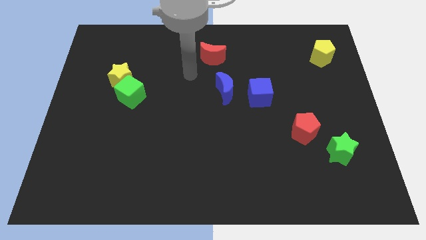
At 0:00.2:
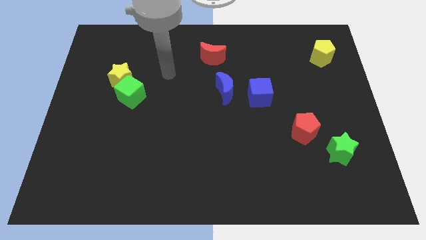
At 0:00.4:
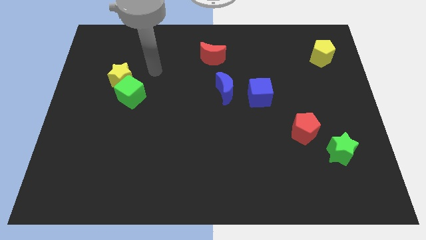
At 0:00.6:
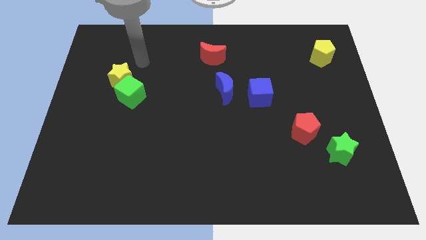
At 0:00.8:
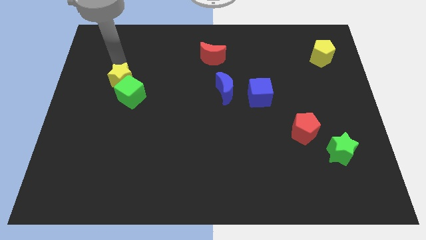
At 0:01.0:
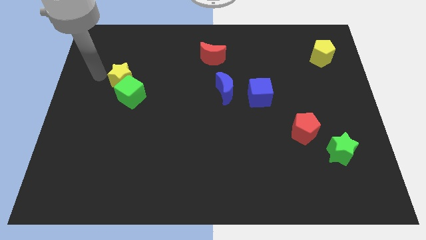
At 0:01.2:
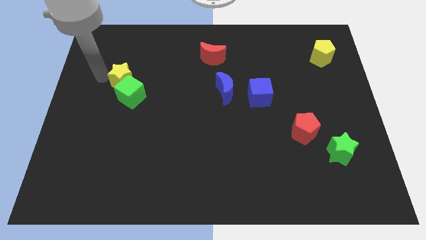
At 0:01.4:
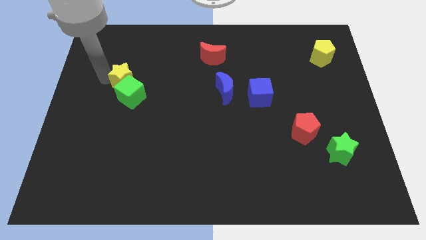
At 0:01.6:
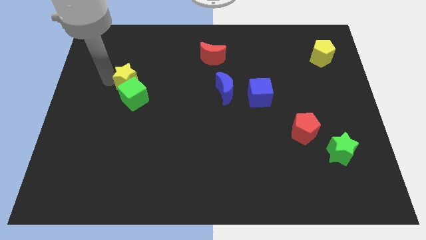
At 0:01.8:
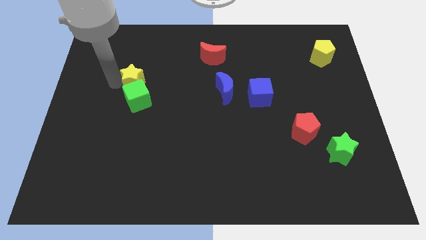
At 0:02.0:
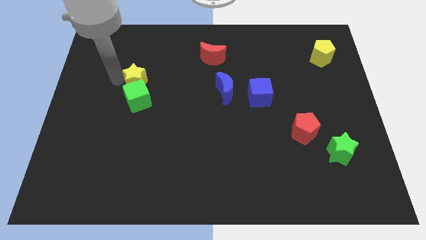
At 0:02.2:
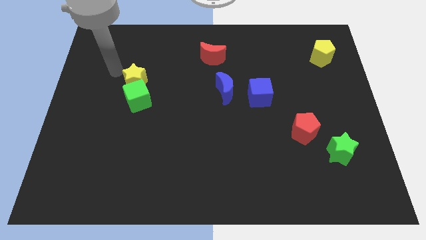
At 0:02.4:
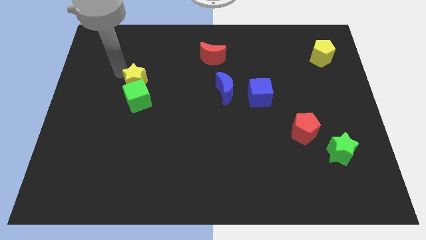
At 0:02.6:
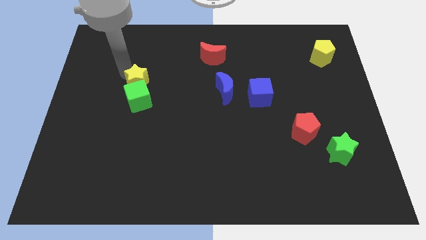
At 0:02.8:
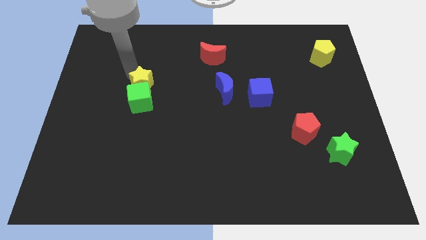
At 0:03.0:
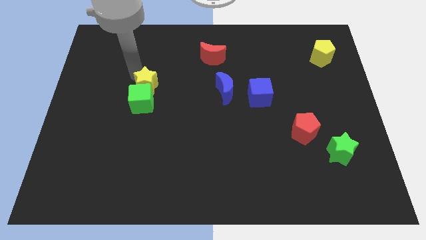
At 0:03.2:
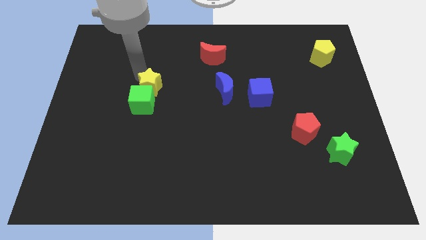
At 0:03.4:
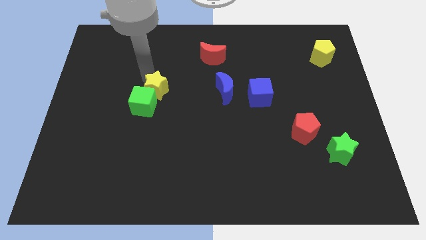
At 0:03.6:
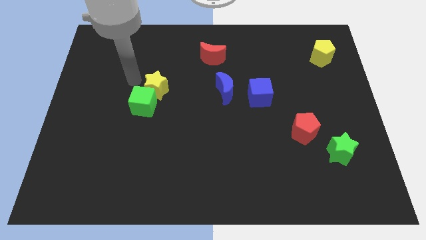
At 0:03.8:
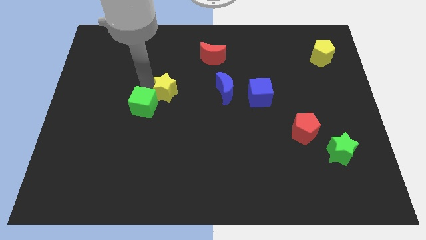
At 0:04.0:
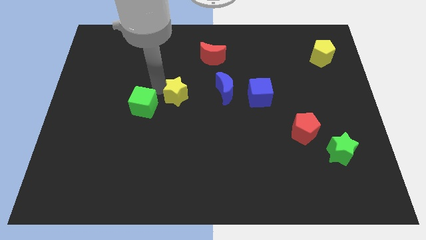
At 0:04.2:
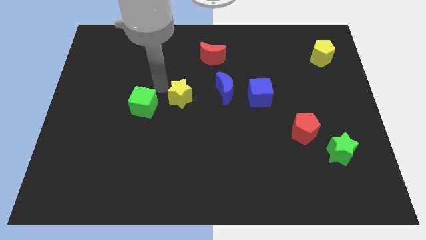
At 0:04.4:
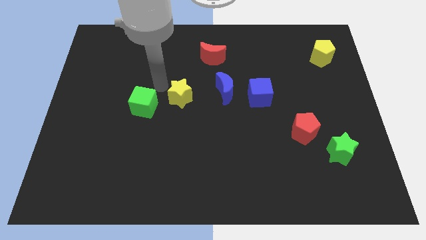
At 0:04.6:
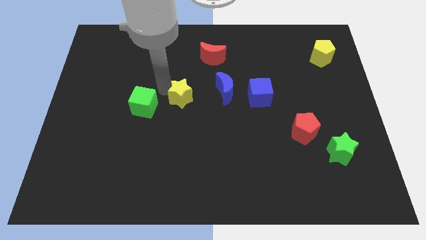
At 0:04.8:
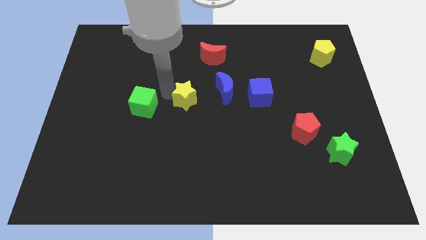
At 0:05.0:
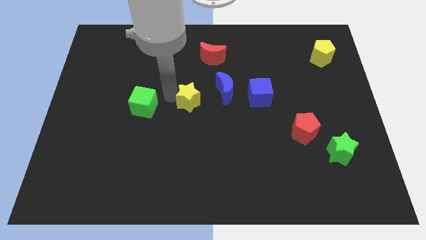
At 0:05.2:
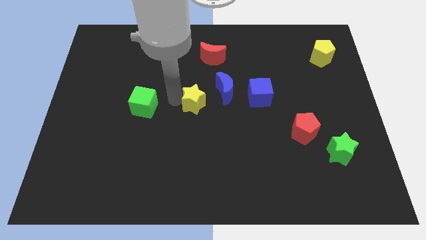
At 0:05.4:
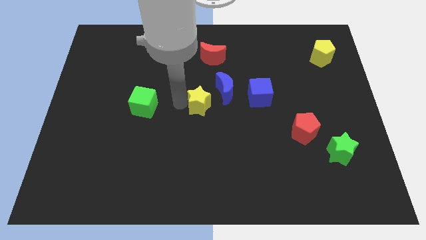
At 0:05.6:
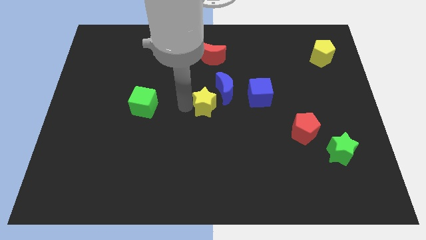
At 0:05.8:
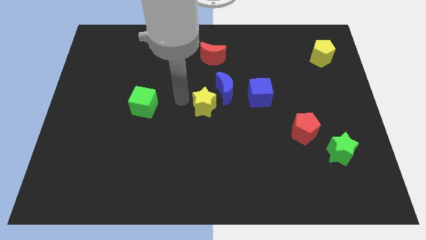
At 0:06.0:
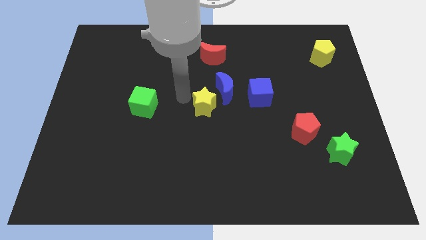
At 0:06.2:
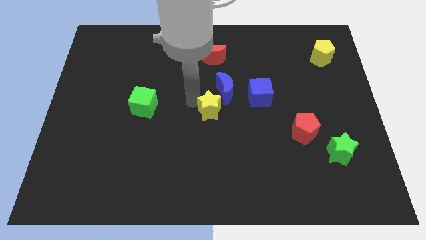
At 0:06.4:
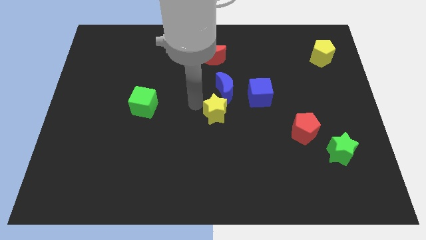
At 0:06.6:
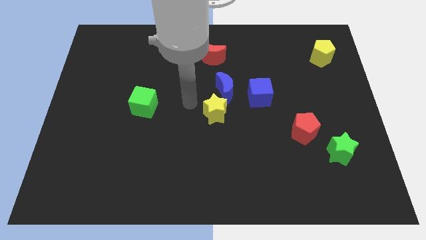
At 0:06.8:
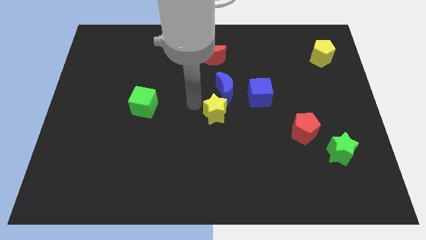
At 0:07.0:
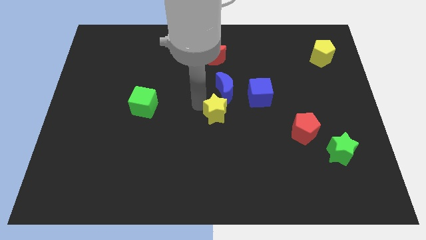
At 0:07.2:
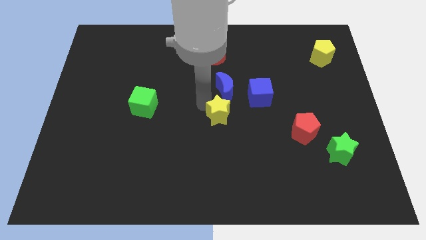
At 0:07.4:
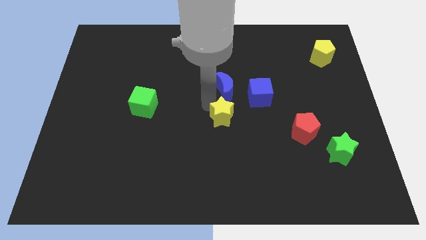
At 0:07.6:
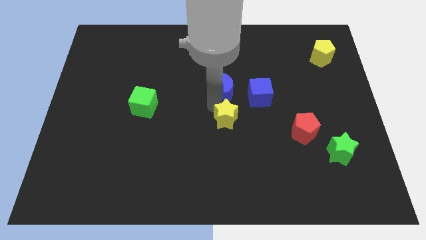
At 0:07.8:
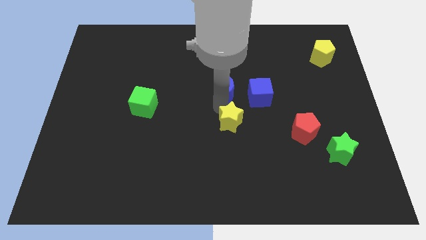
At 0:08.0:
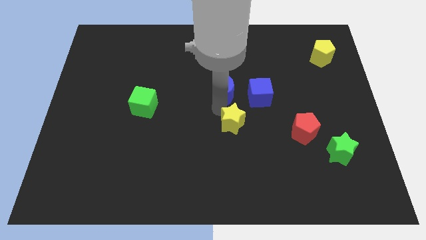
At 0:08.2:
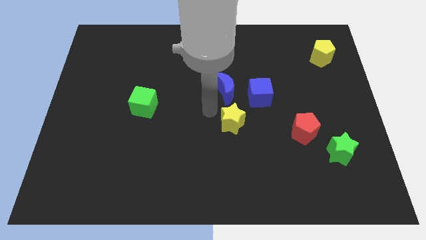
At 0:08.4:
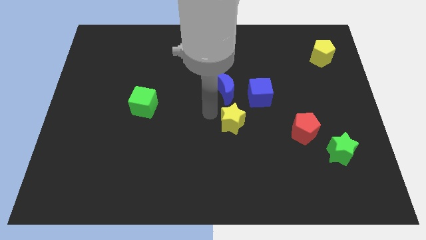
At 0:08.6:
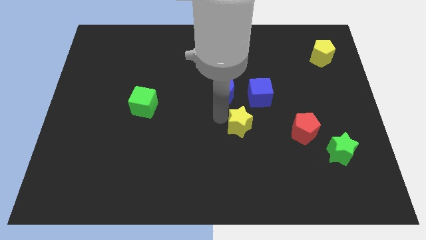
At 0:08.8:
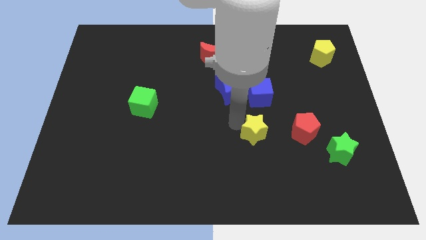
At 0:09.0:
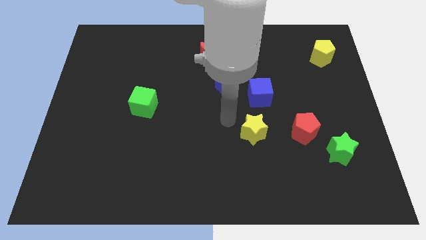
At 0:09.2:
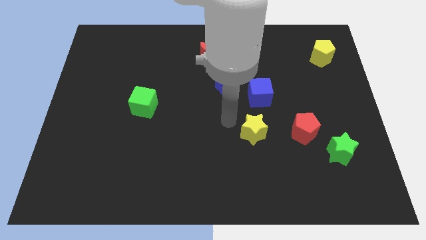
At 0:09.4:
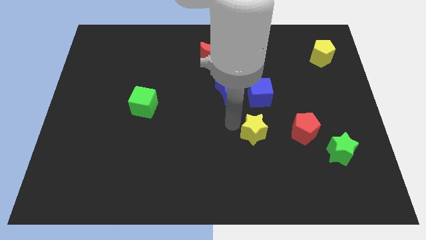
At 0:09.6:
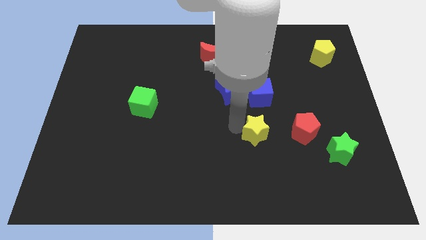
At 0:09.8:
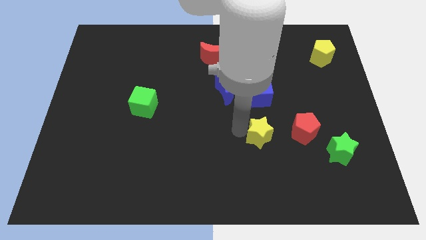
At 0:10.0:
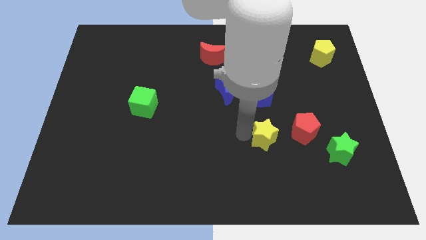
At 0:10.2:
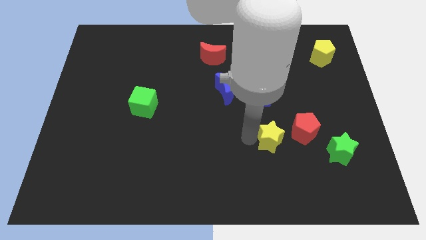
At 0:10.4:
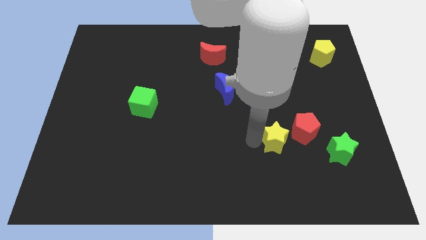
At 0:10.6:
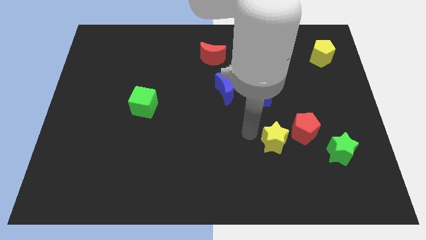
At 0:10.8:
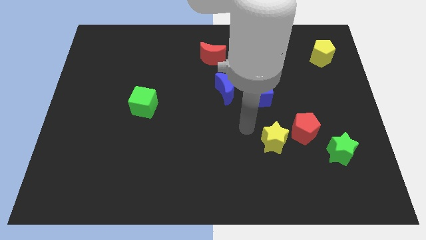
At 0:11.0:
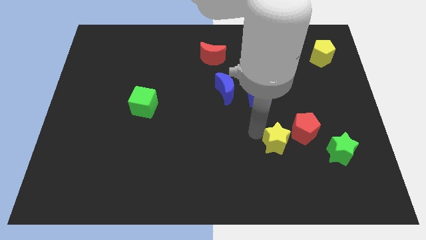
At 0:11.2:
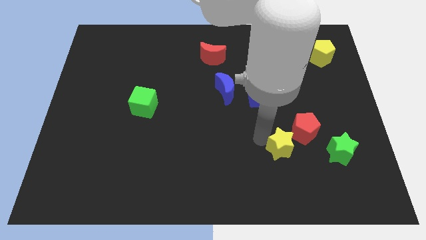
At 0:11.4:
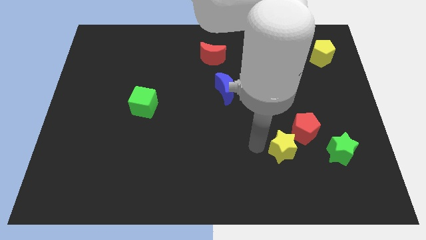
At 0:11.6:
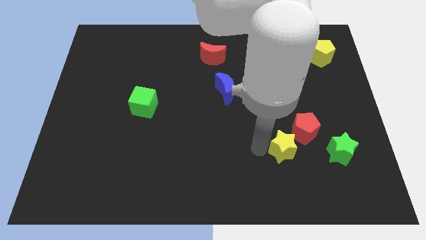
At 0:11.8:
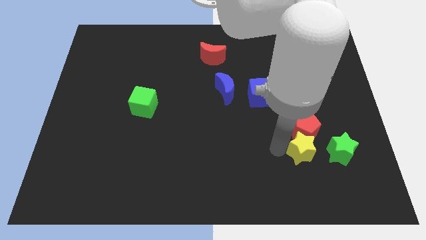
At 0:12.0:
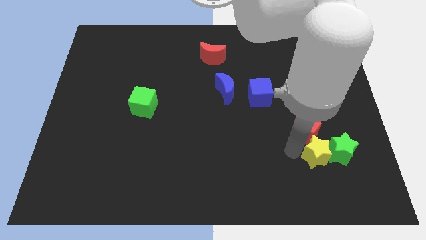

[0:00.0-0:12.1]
move the yellow star towards the green star

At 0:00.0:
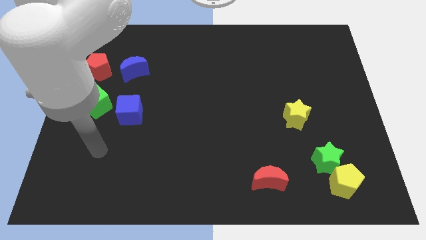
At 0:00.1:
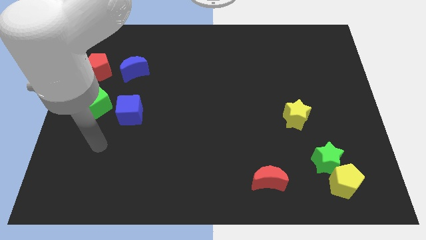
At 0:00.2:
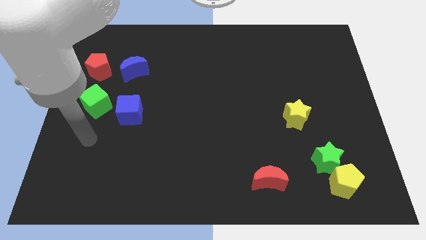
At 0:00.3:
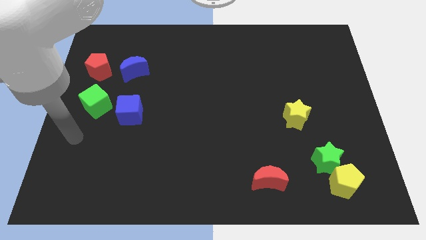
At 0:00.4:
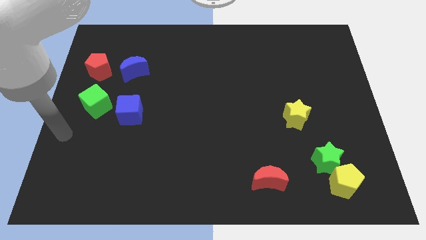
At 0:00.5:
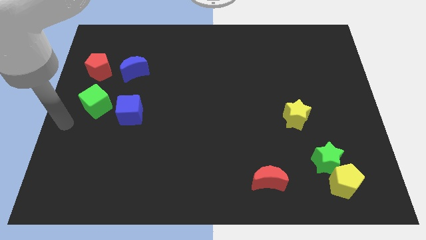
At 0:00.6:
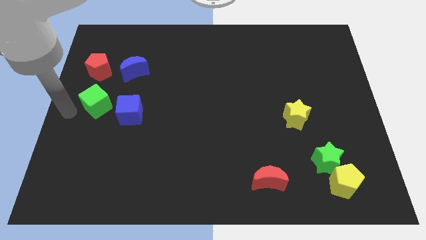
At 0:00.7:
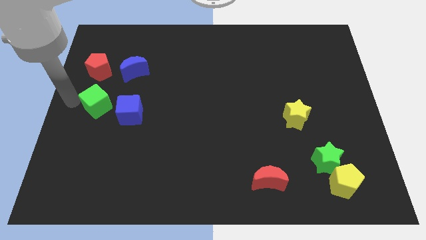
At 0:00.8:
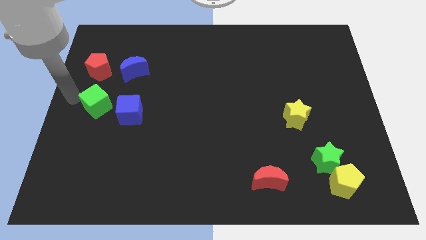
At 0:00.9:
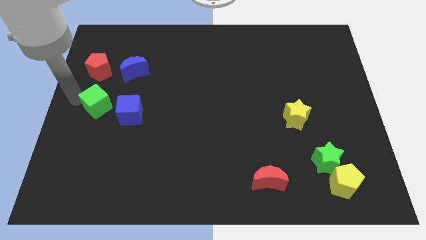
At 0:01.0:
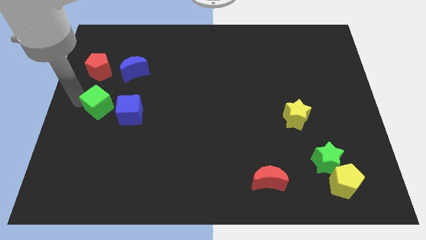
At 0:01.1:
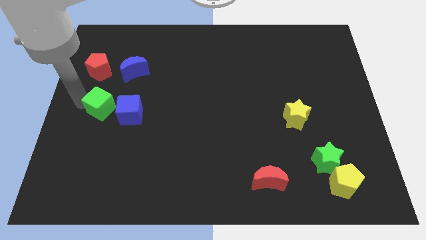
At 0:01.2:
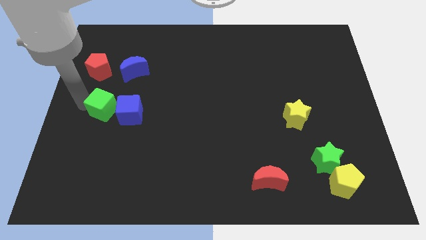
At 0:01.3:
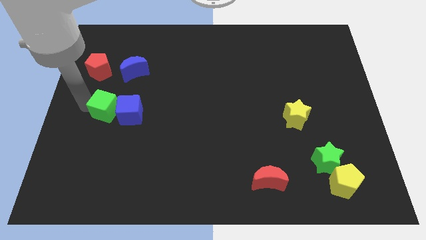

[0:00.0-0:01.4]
put the green cube next to the blue cube

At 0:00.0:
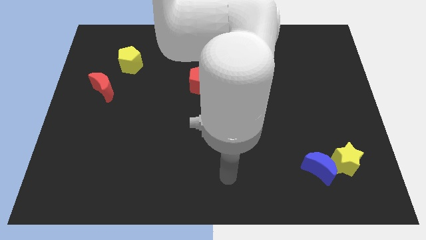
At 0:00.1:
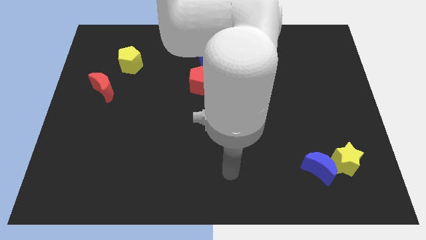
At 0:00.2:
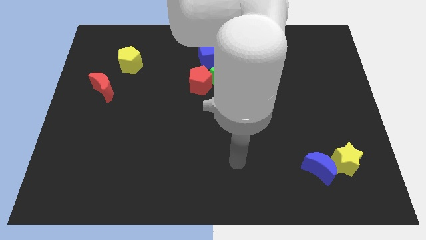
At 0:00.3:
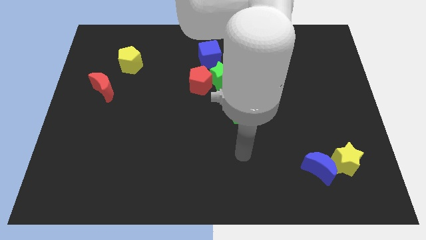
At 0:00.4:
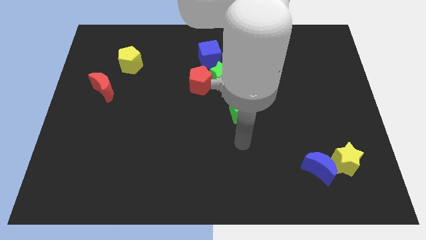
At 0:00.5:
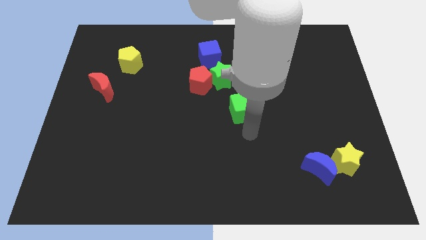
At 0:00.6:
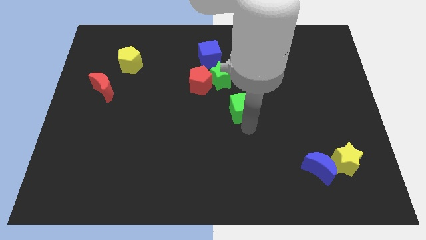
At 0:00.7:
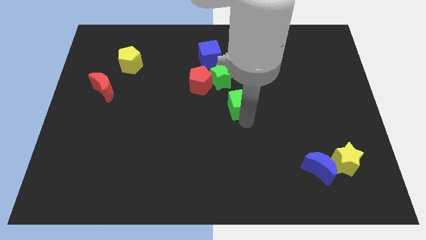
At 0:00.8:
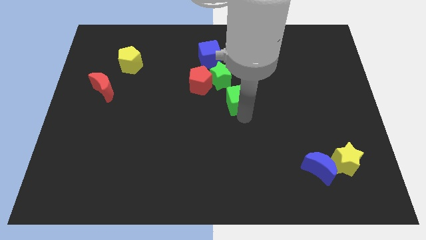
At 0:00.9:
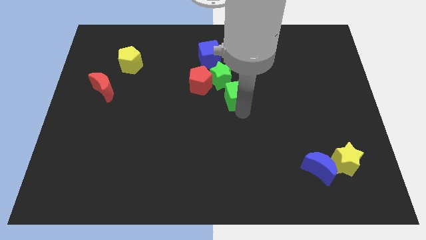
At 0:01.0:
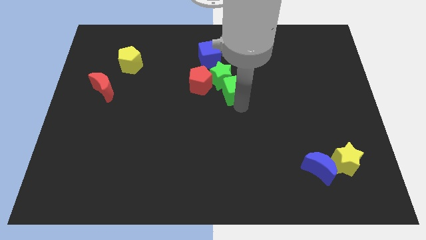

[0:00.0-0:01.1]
slide the green cube to the green star
